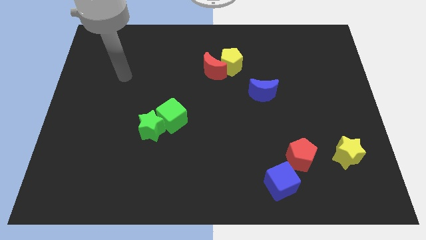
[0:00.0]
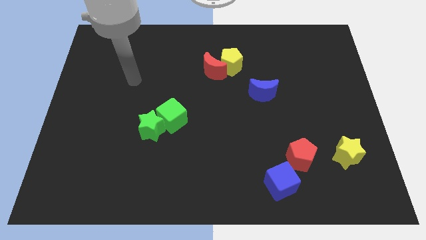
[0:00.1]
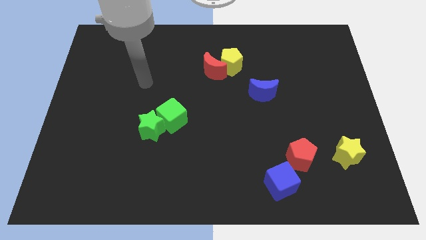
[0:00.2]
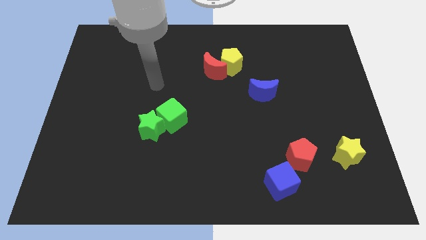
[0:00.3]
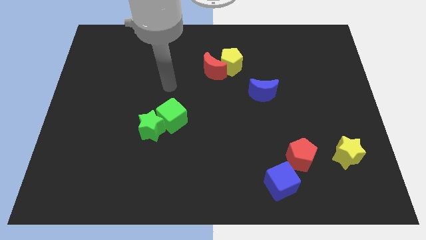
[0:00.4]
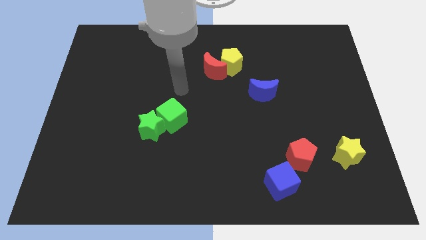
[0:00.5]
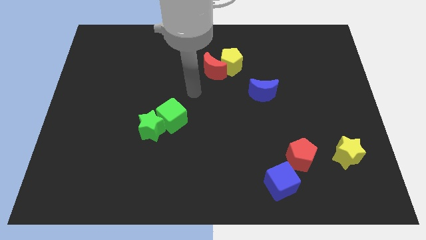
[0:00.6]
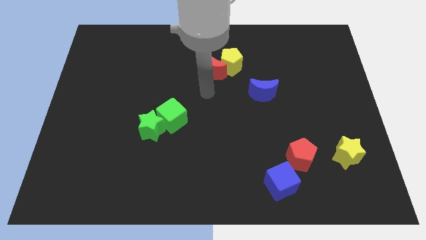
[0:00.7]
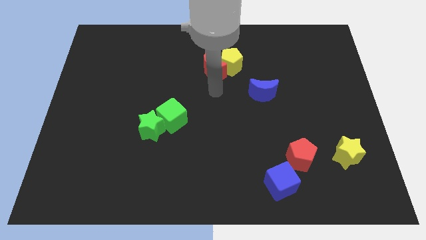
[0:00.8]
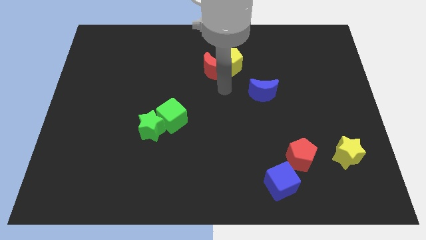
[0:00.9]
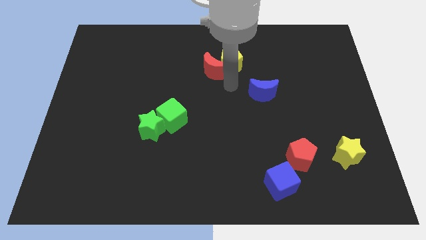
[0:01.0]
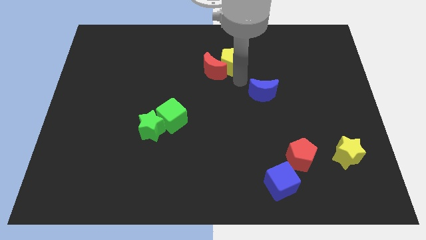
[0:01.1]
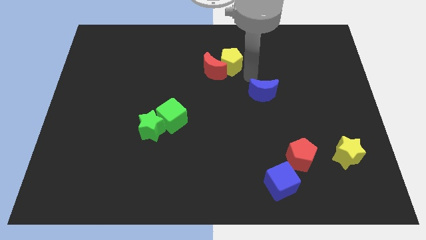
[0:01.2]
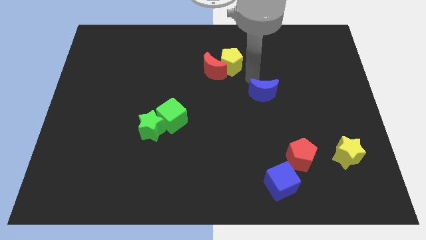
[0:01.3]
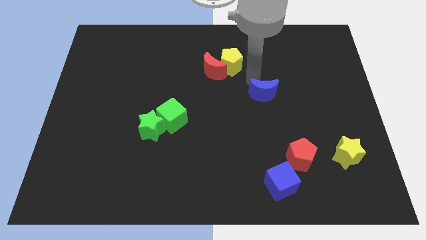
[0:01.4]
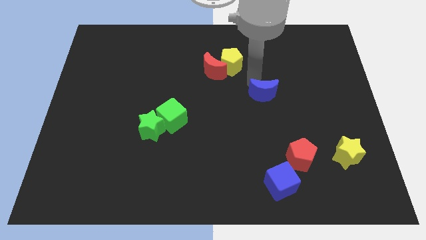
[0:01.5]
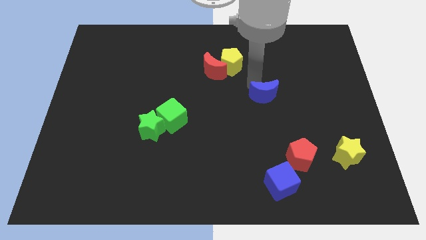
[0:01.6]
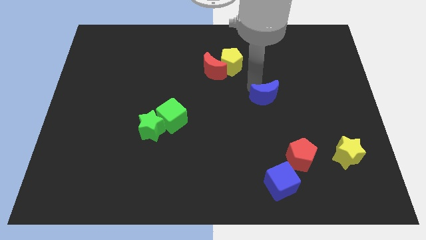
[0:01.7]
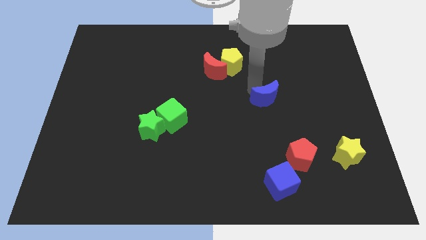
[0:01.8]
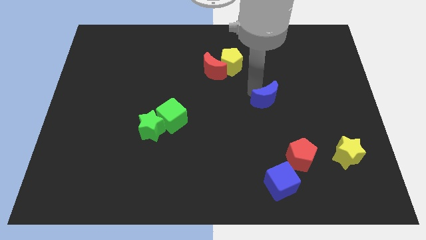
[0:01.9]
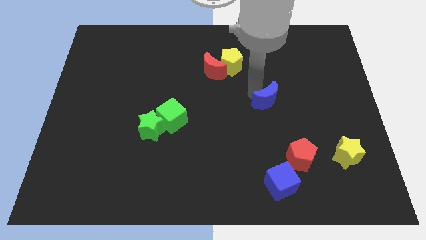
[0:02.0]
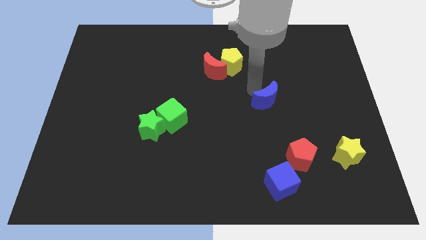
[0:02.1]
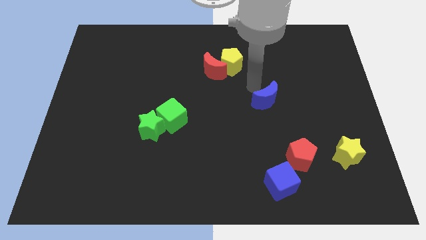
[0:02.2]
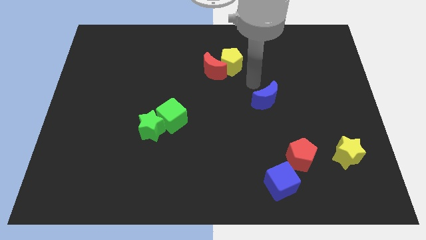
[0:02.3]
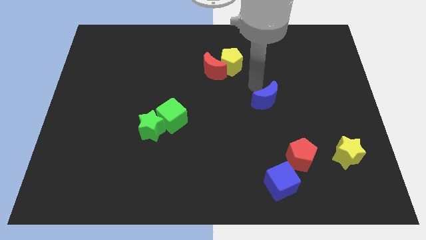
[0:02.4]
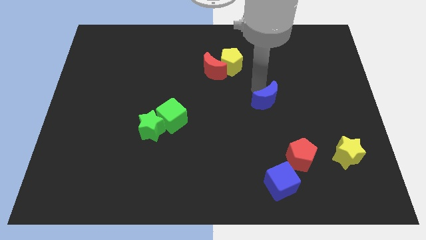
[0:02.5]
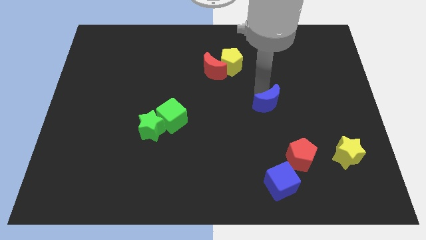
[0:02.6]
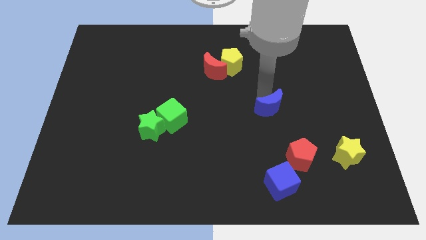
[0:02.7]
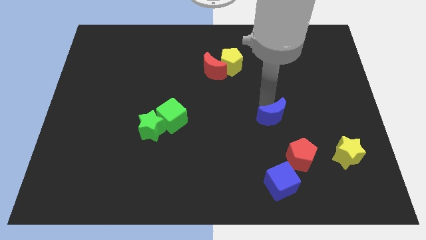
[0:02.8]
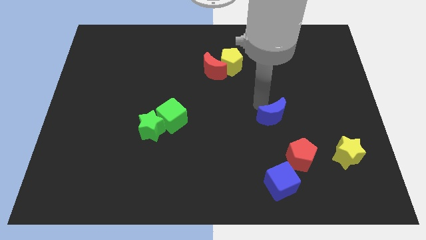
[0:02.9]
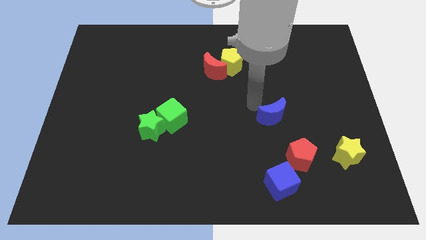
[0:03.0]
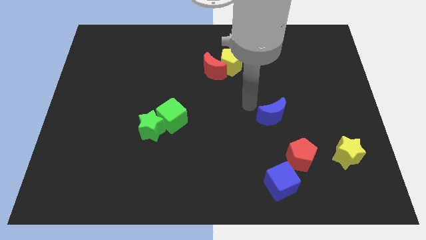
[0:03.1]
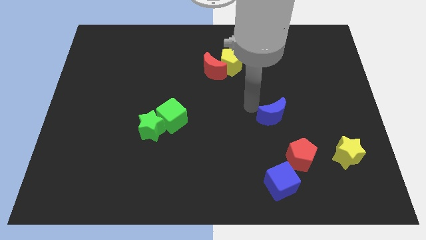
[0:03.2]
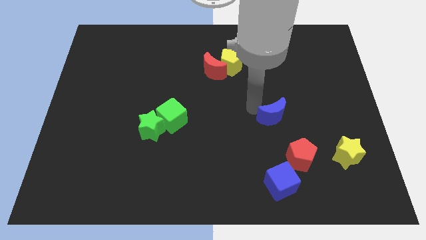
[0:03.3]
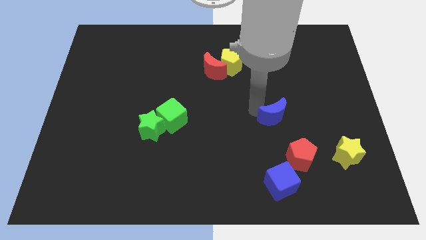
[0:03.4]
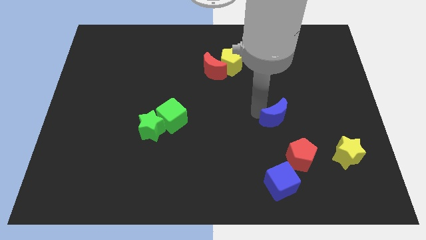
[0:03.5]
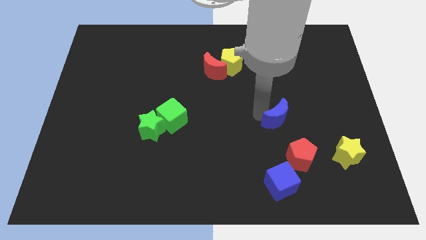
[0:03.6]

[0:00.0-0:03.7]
push the blue moon downwards and right a little

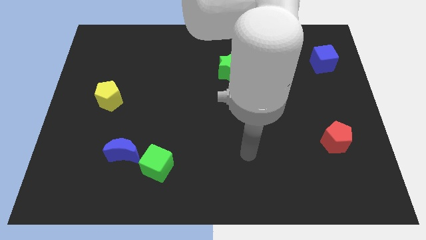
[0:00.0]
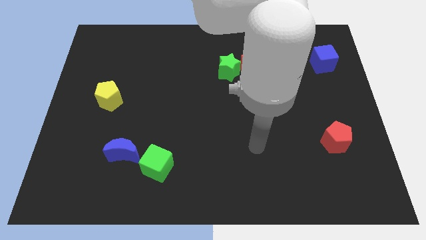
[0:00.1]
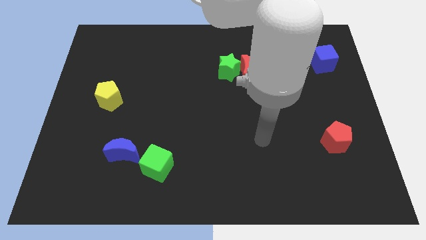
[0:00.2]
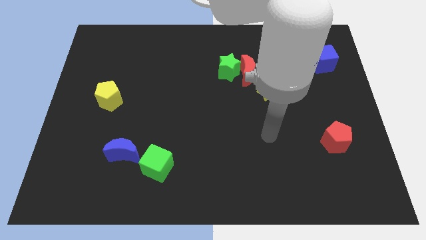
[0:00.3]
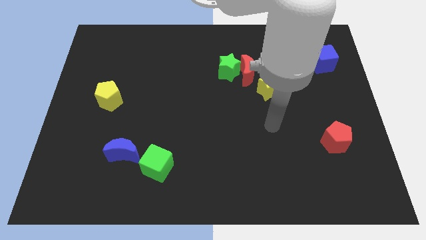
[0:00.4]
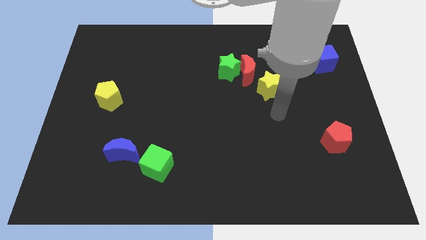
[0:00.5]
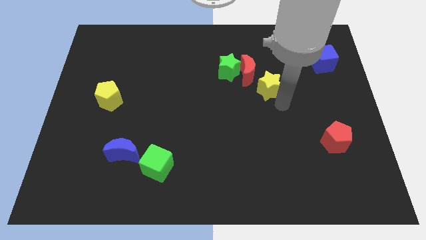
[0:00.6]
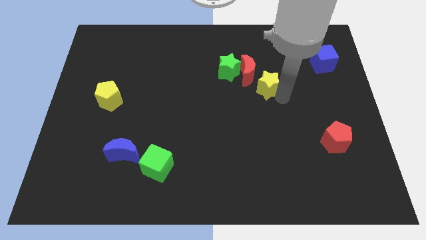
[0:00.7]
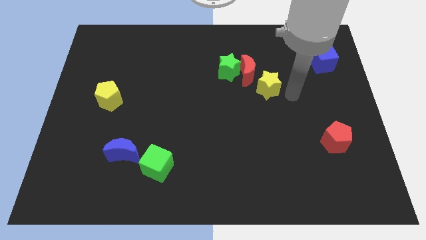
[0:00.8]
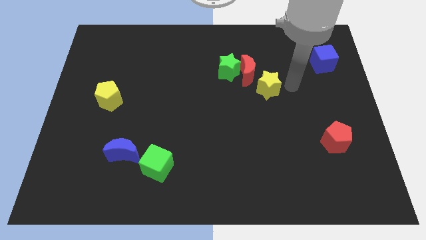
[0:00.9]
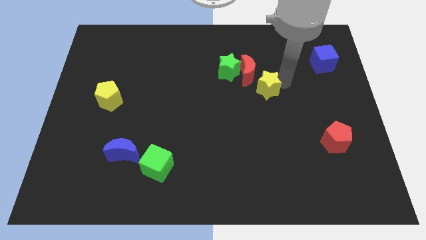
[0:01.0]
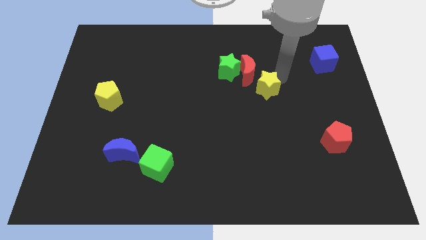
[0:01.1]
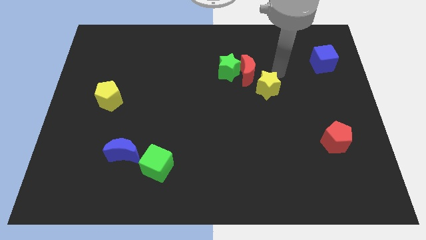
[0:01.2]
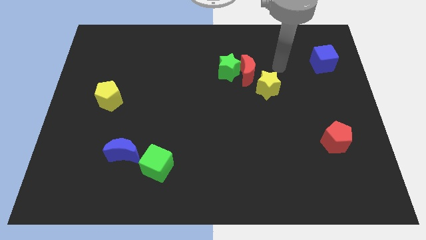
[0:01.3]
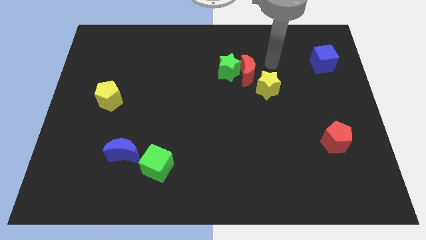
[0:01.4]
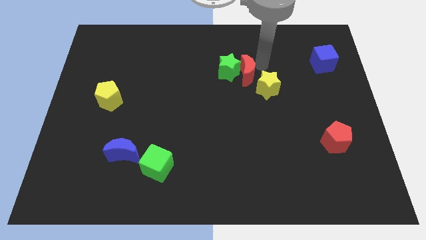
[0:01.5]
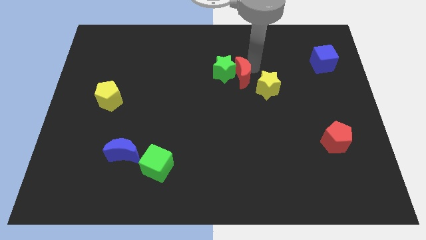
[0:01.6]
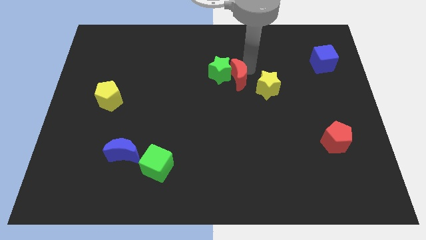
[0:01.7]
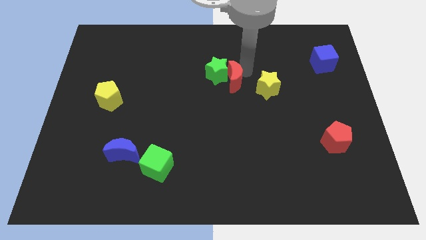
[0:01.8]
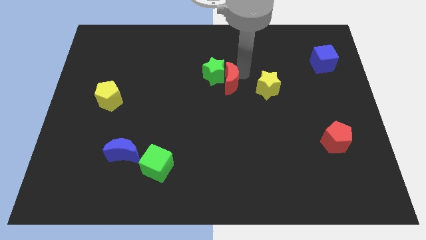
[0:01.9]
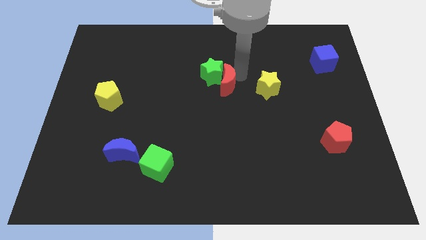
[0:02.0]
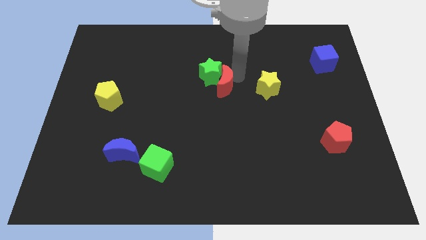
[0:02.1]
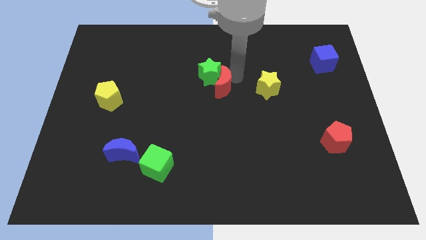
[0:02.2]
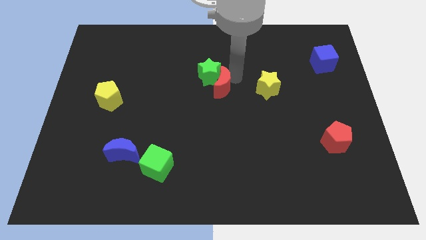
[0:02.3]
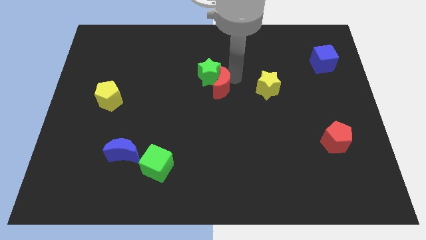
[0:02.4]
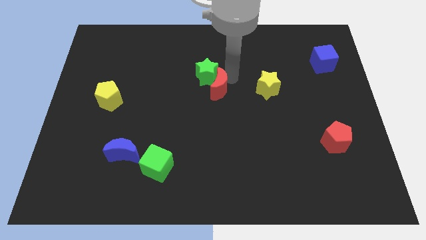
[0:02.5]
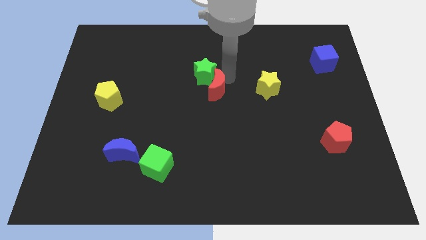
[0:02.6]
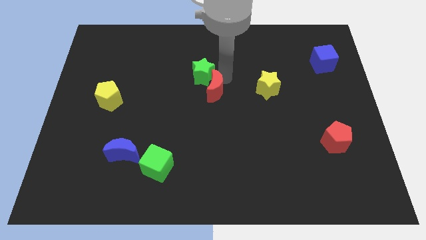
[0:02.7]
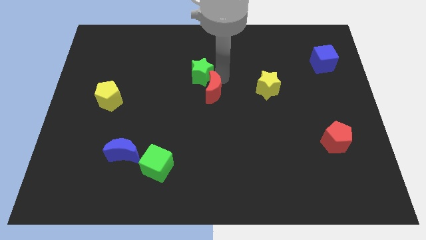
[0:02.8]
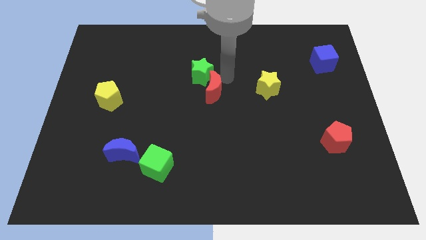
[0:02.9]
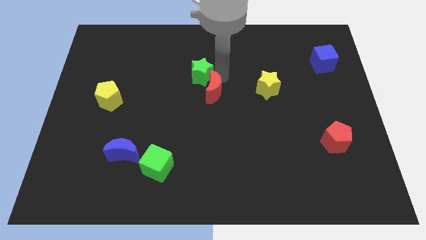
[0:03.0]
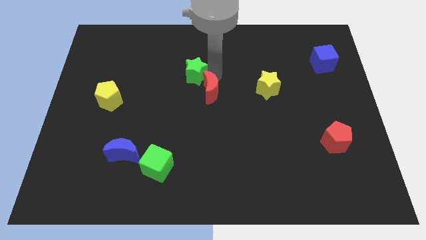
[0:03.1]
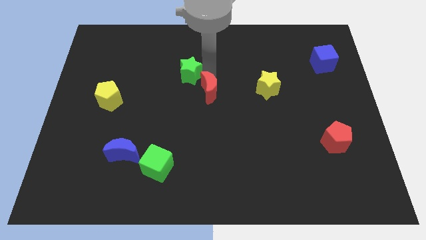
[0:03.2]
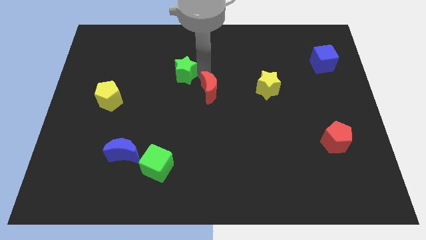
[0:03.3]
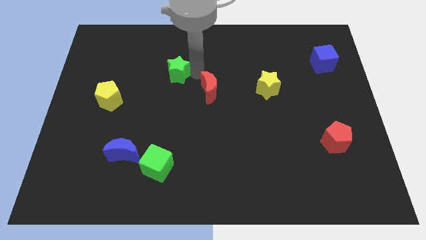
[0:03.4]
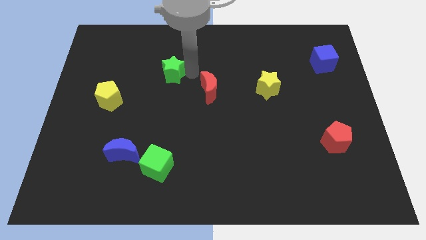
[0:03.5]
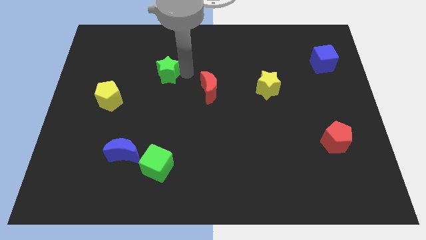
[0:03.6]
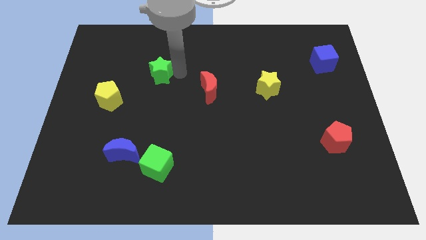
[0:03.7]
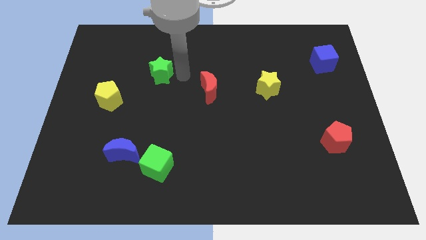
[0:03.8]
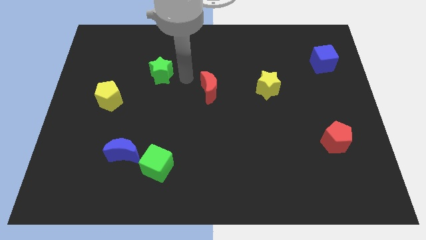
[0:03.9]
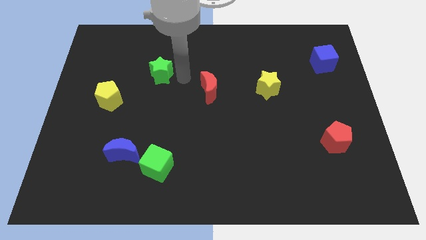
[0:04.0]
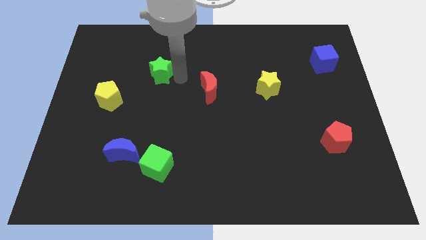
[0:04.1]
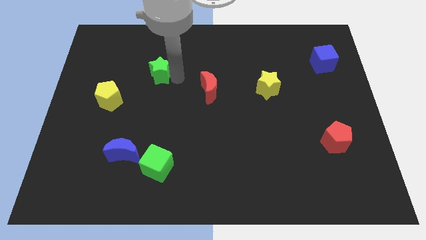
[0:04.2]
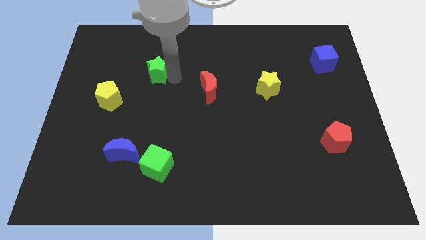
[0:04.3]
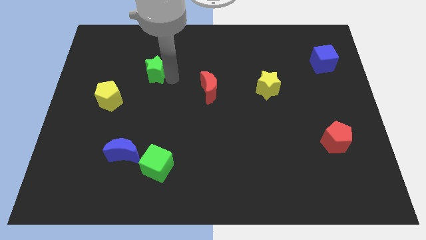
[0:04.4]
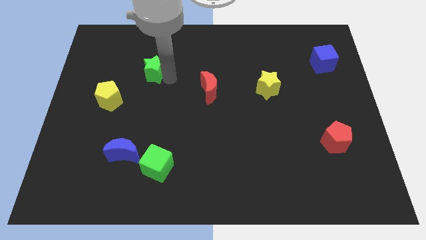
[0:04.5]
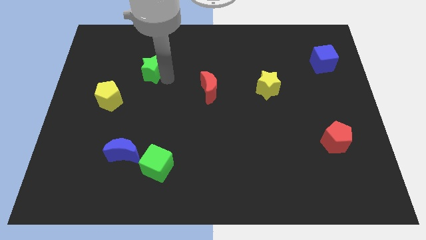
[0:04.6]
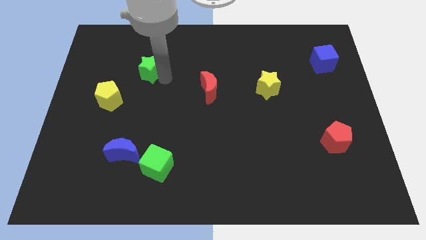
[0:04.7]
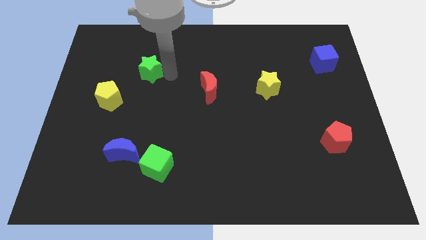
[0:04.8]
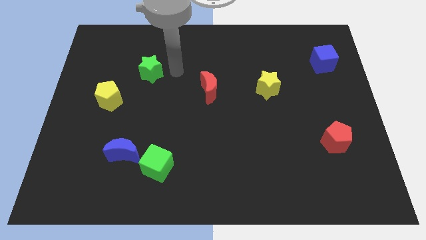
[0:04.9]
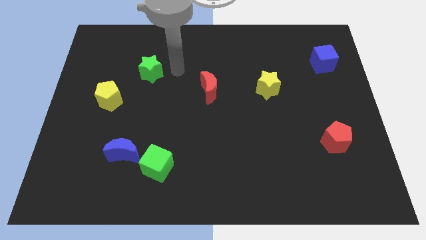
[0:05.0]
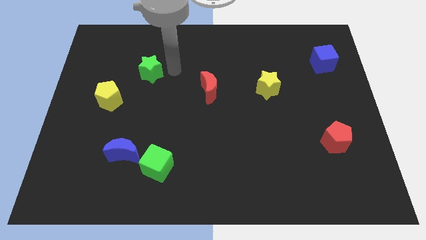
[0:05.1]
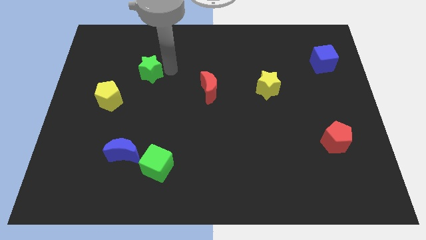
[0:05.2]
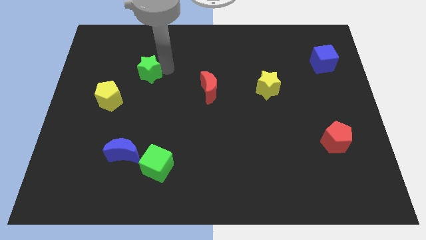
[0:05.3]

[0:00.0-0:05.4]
move the green star left
